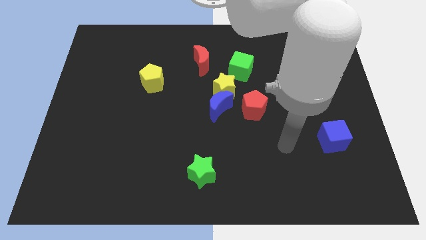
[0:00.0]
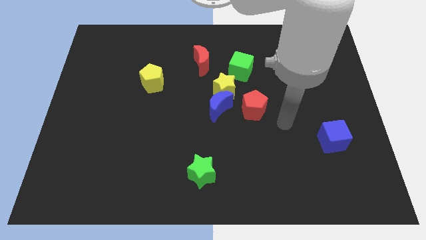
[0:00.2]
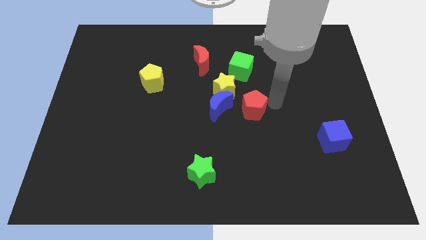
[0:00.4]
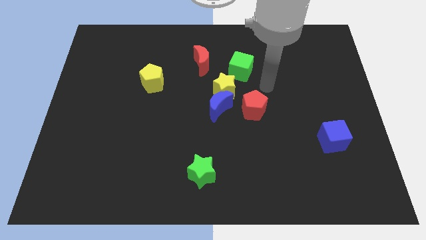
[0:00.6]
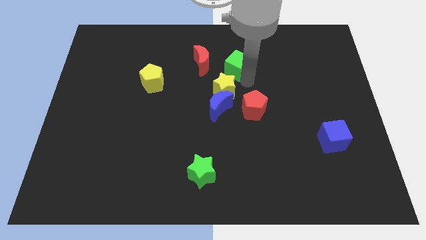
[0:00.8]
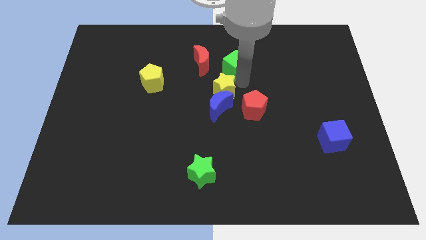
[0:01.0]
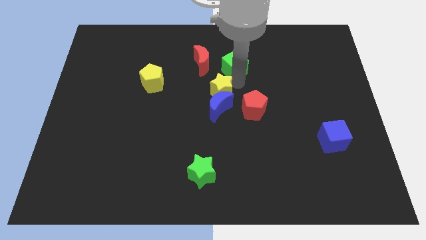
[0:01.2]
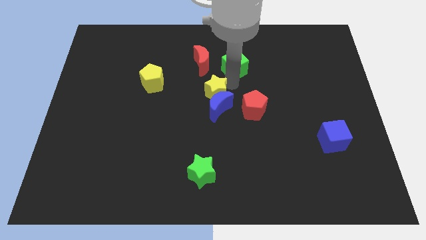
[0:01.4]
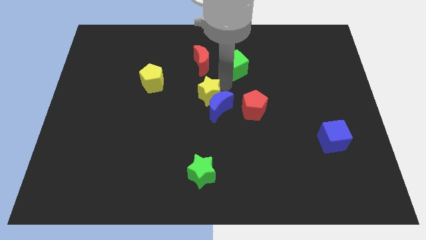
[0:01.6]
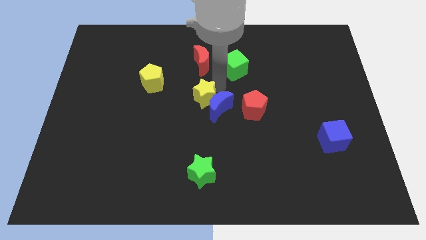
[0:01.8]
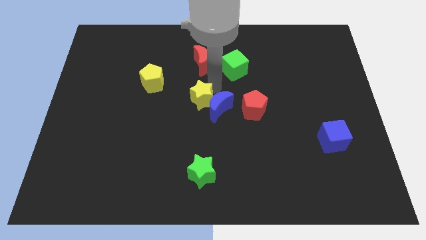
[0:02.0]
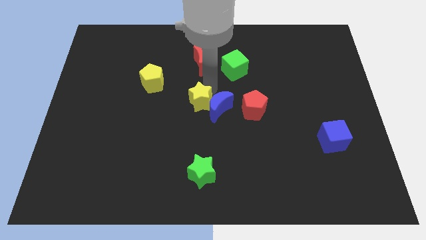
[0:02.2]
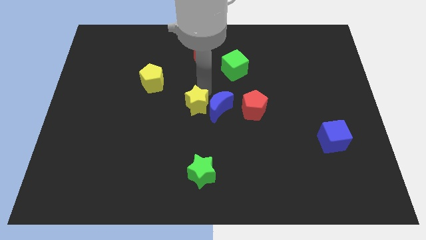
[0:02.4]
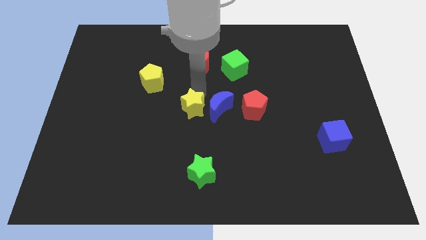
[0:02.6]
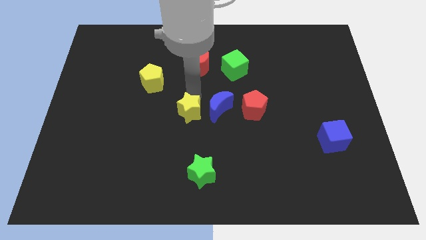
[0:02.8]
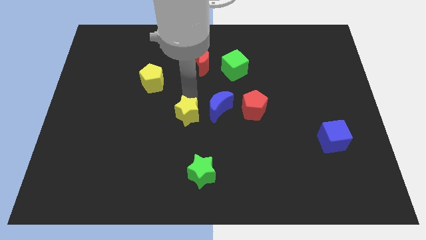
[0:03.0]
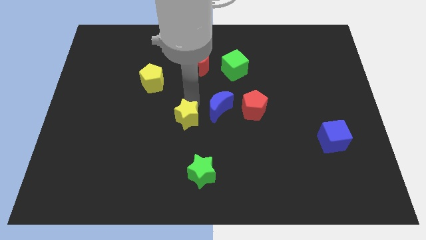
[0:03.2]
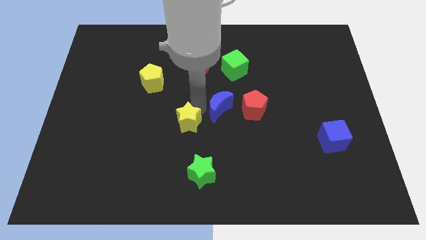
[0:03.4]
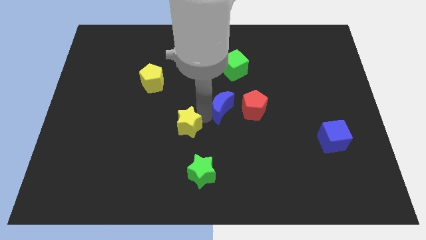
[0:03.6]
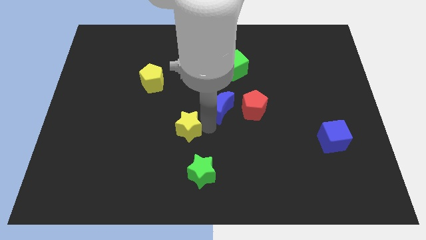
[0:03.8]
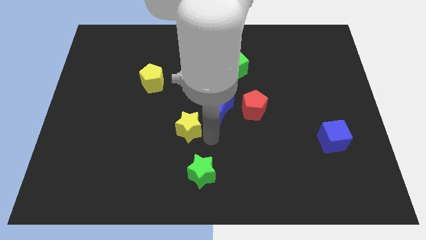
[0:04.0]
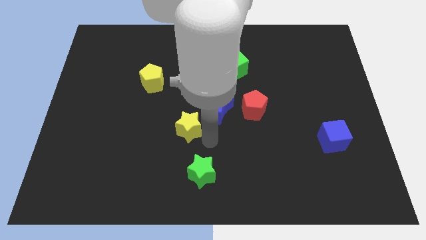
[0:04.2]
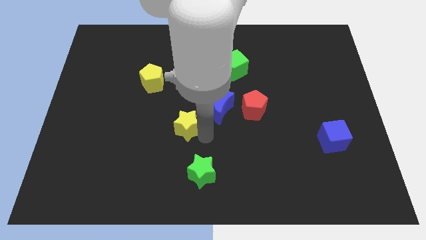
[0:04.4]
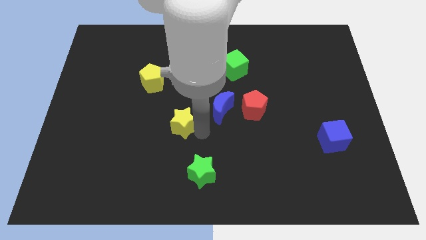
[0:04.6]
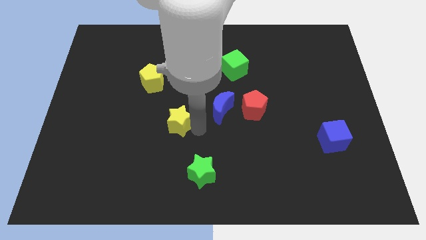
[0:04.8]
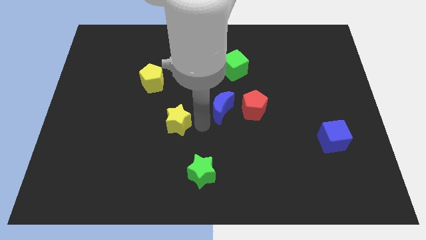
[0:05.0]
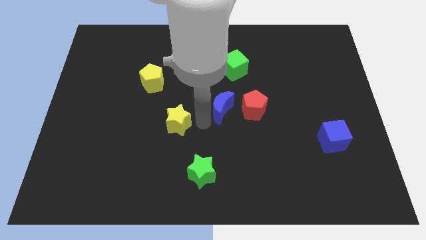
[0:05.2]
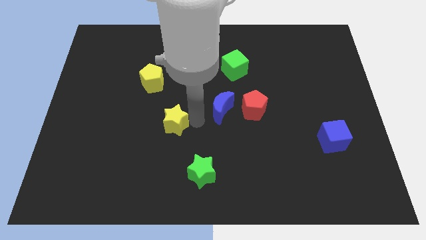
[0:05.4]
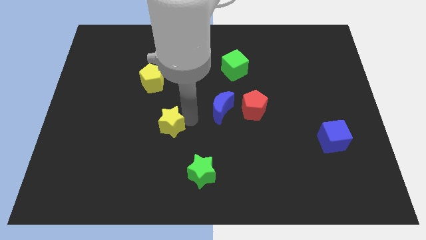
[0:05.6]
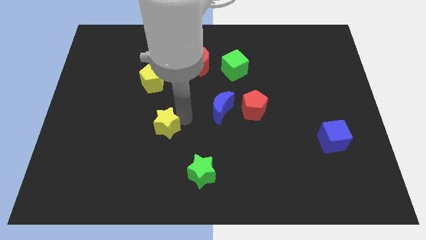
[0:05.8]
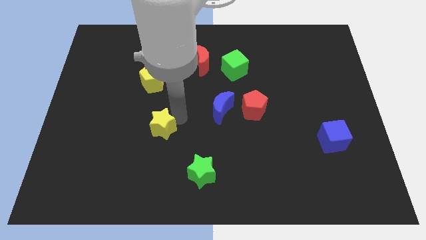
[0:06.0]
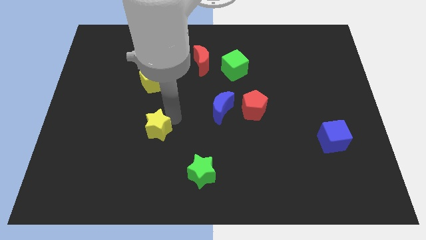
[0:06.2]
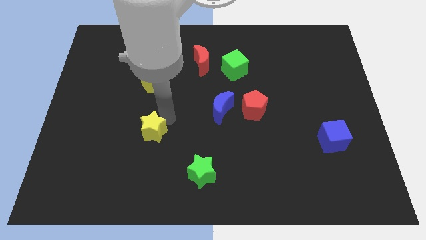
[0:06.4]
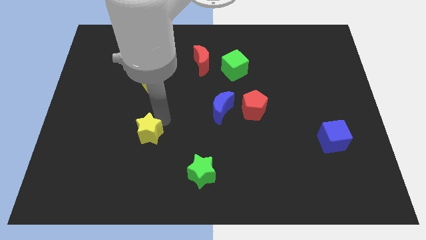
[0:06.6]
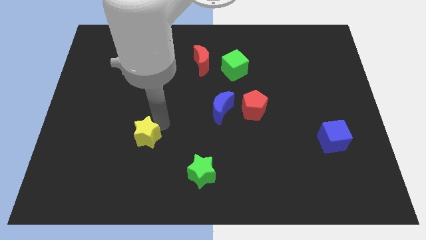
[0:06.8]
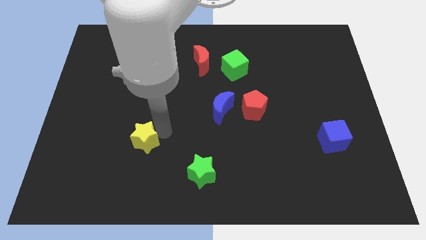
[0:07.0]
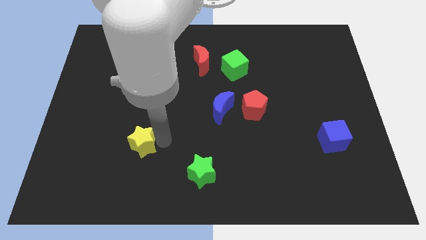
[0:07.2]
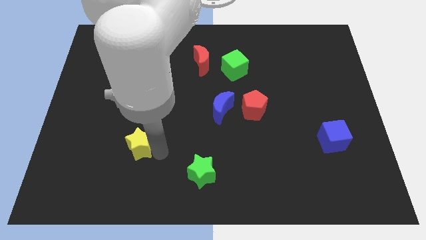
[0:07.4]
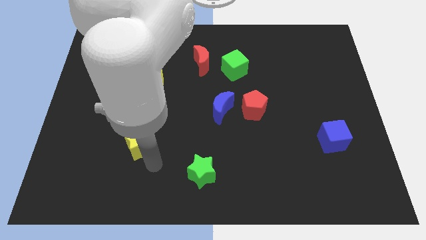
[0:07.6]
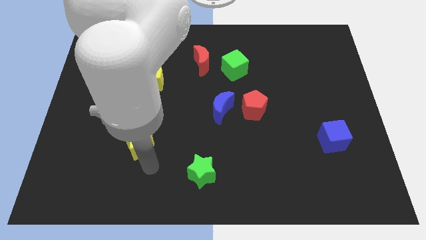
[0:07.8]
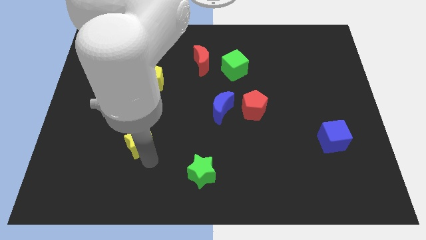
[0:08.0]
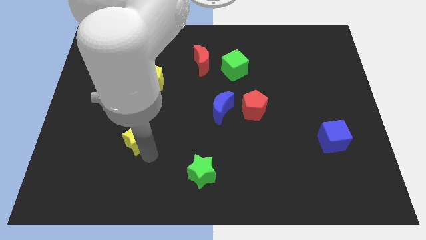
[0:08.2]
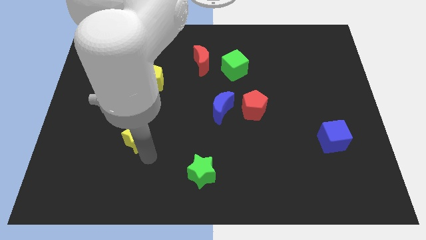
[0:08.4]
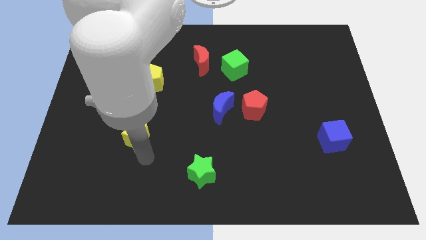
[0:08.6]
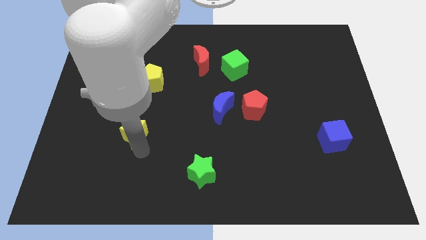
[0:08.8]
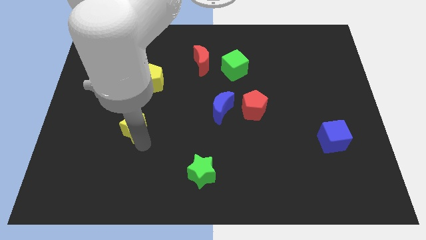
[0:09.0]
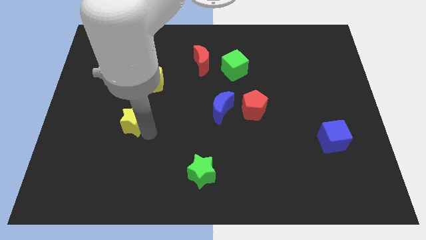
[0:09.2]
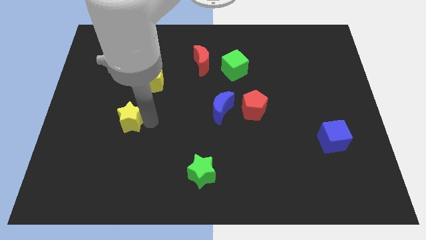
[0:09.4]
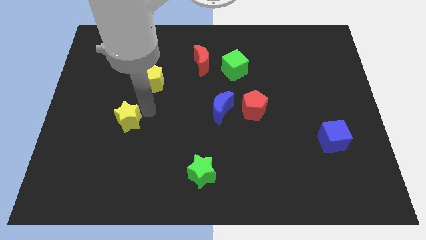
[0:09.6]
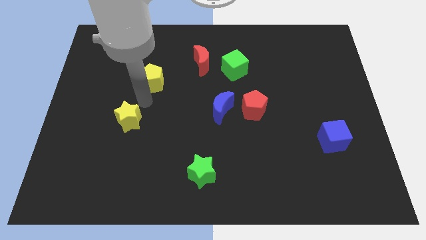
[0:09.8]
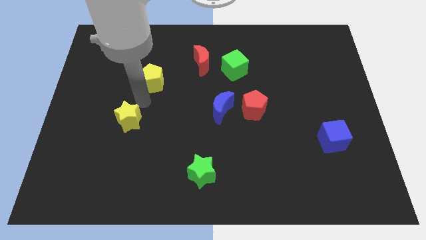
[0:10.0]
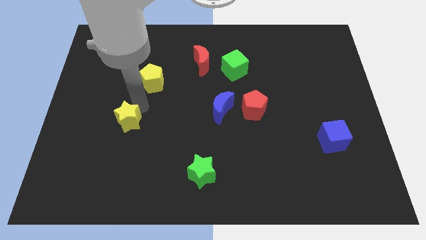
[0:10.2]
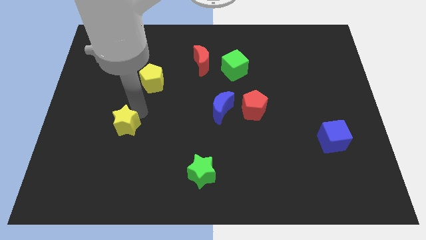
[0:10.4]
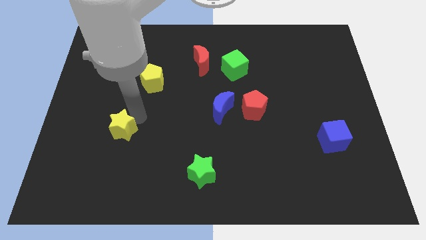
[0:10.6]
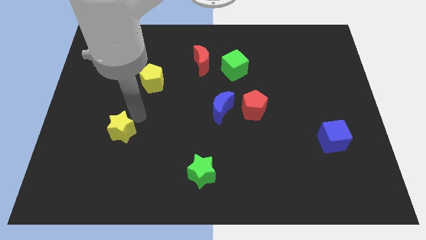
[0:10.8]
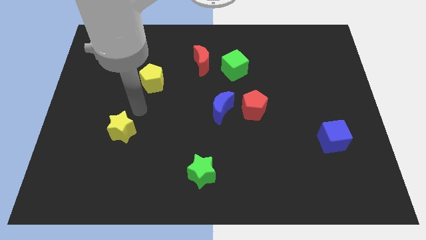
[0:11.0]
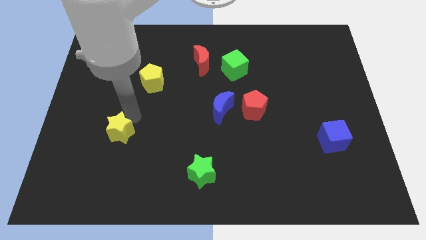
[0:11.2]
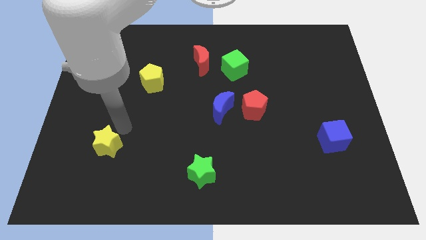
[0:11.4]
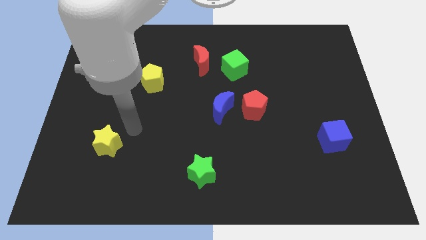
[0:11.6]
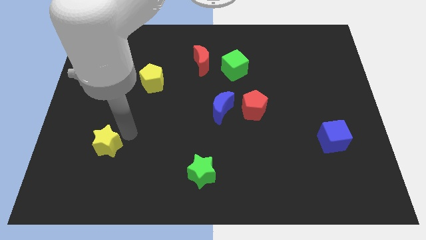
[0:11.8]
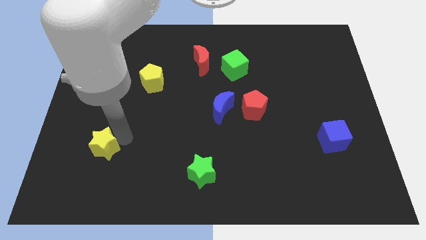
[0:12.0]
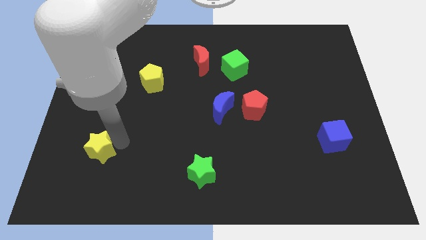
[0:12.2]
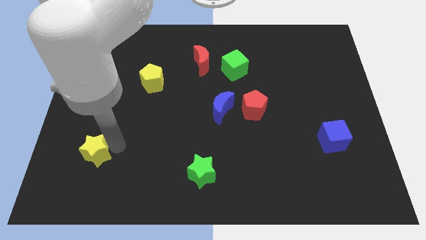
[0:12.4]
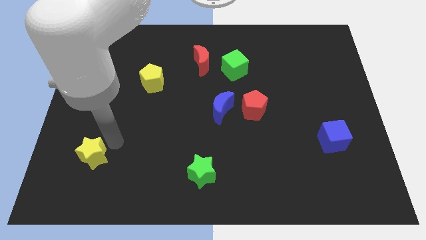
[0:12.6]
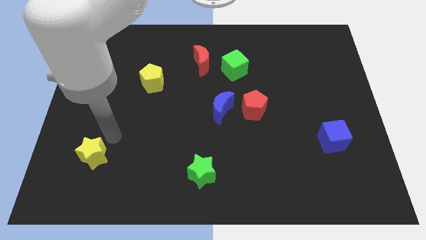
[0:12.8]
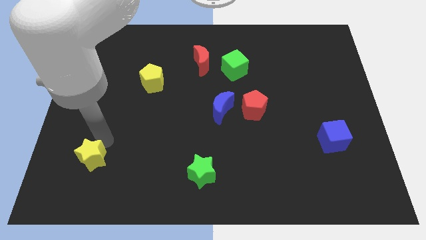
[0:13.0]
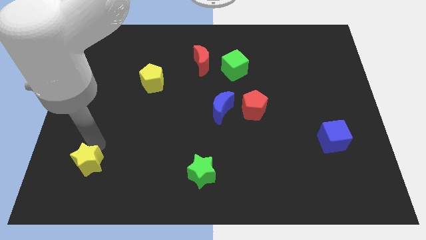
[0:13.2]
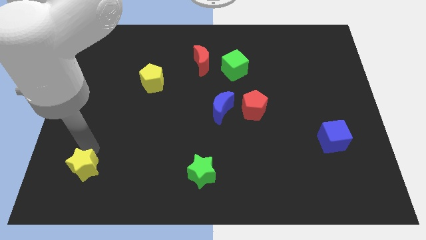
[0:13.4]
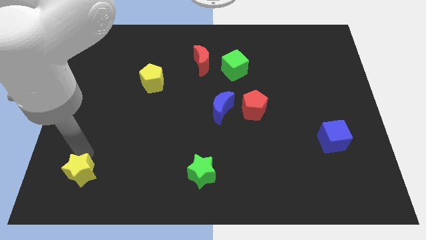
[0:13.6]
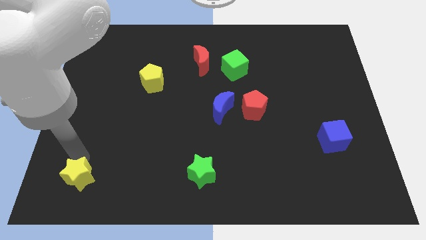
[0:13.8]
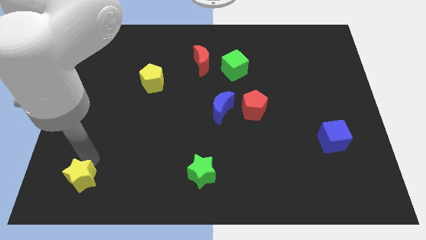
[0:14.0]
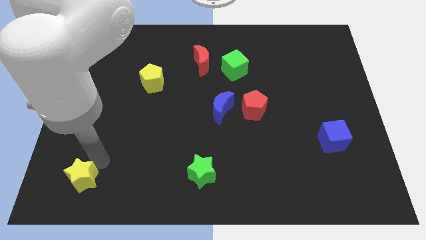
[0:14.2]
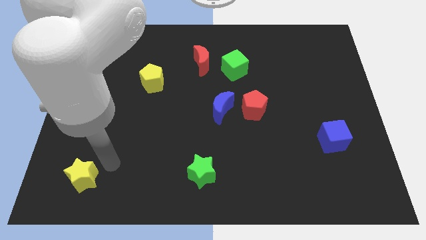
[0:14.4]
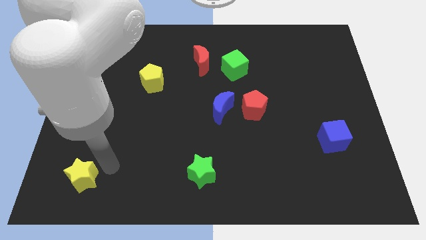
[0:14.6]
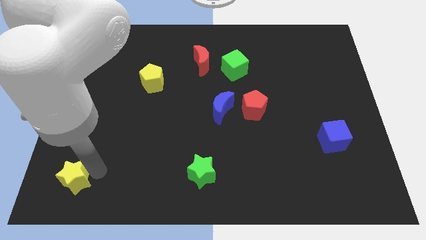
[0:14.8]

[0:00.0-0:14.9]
move the yellow star to the lower left corner
